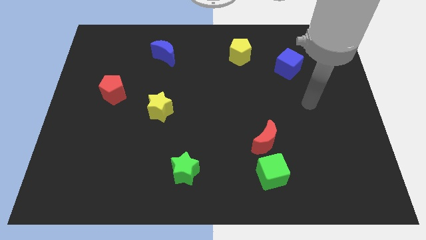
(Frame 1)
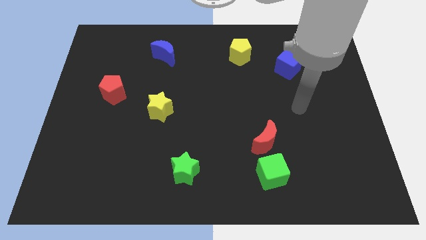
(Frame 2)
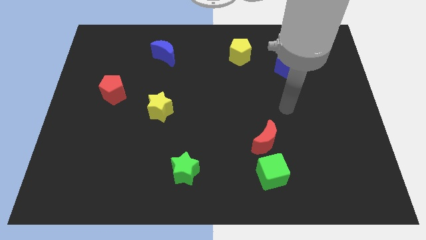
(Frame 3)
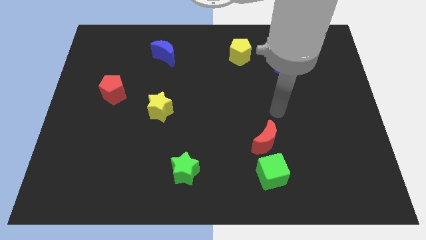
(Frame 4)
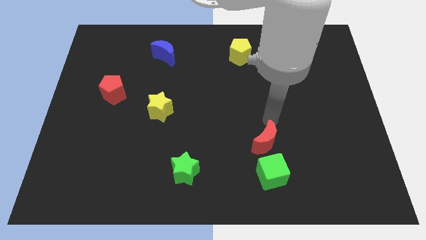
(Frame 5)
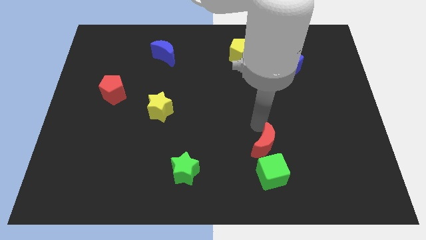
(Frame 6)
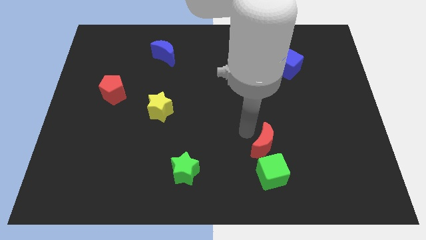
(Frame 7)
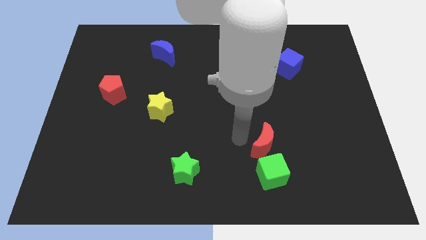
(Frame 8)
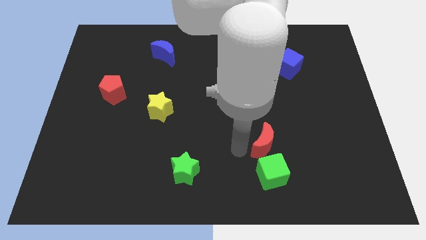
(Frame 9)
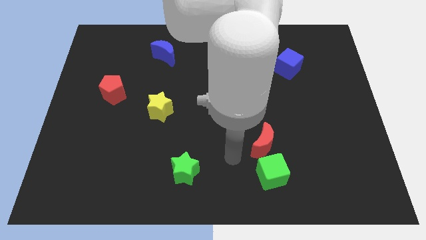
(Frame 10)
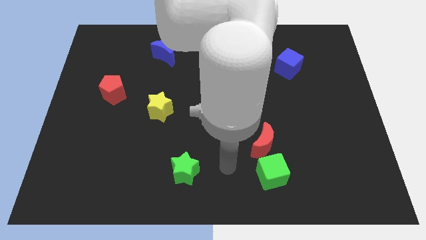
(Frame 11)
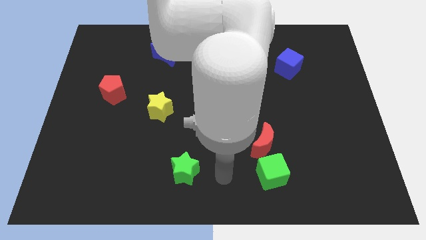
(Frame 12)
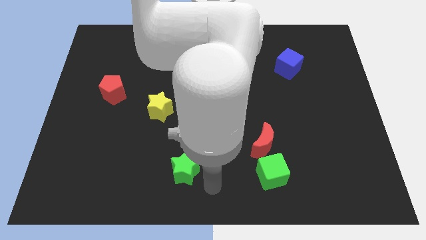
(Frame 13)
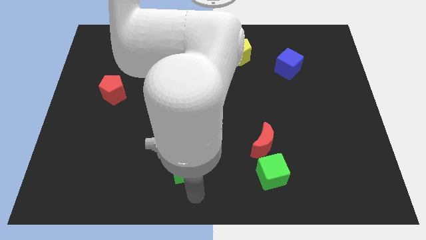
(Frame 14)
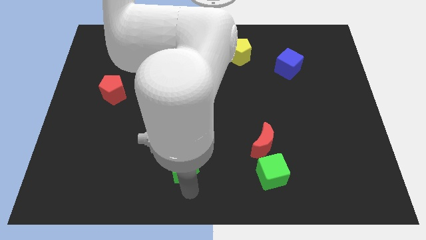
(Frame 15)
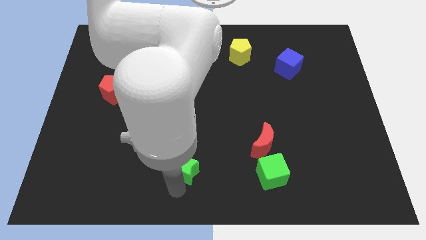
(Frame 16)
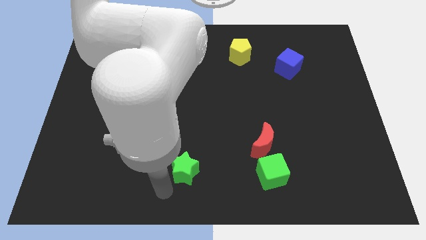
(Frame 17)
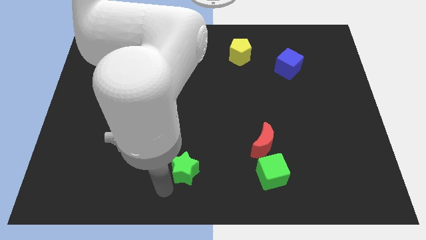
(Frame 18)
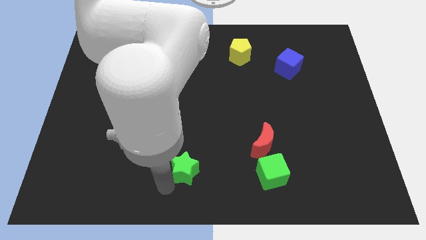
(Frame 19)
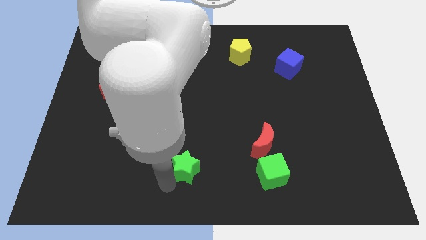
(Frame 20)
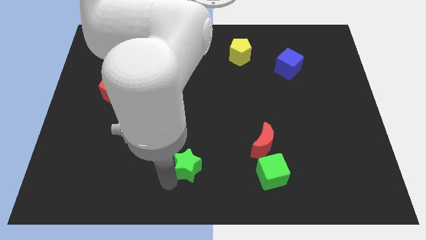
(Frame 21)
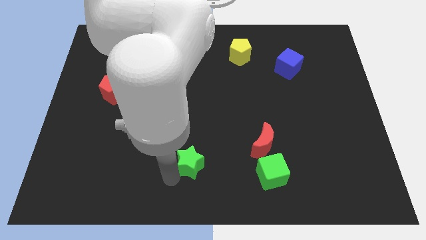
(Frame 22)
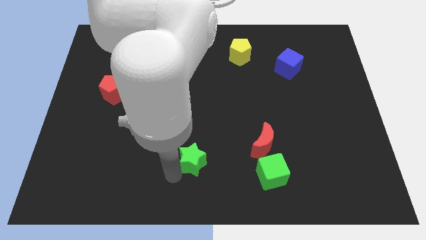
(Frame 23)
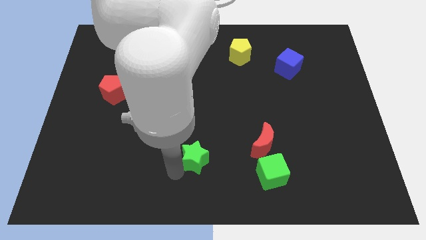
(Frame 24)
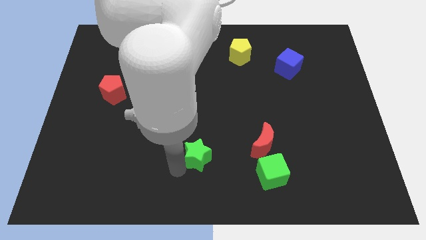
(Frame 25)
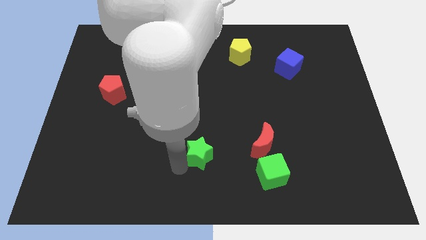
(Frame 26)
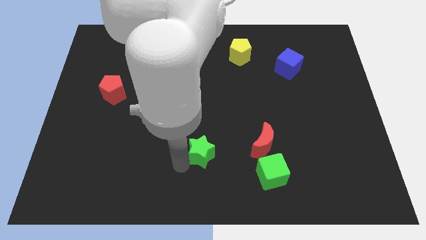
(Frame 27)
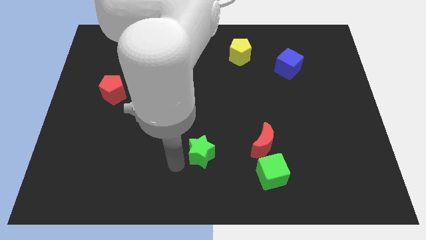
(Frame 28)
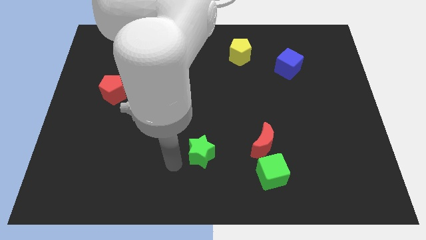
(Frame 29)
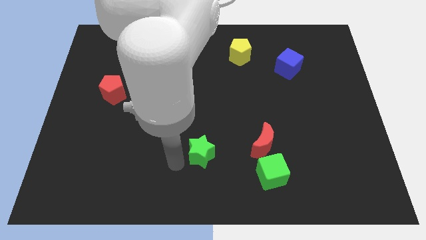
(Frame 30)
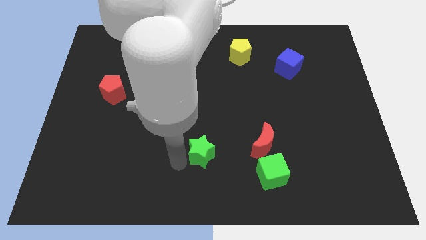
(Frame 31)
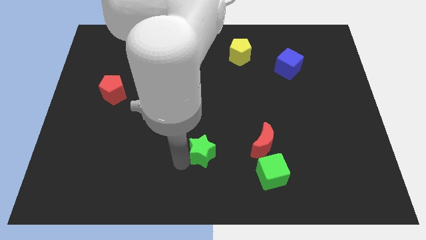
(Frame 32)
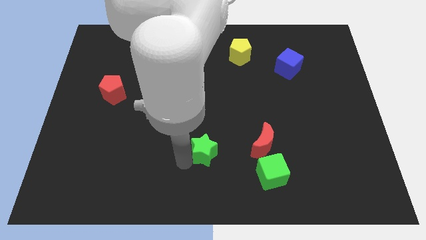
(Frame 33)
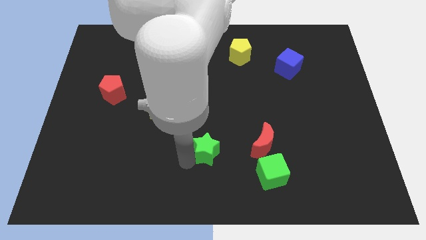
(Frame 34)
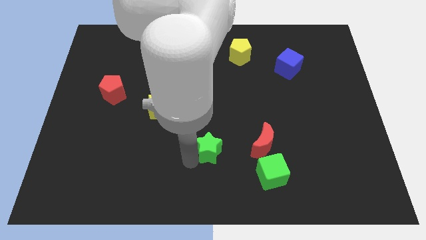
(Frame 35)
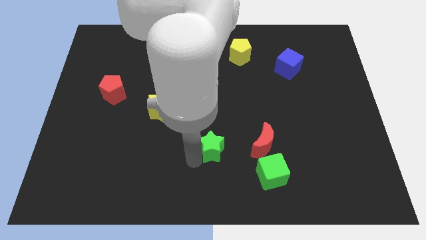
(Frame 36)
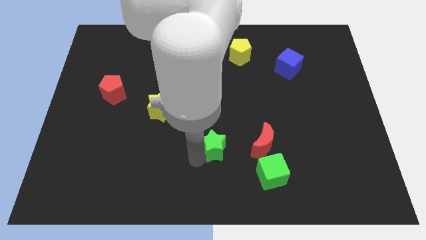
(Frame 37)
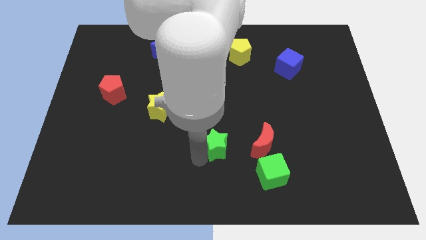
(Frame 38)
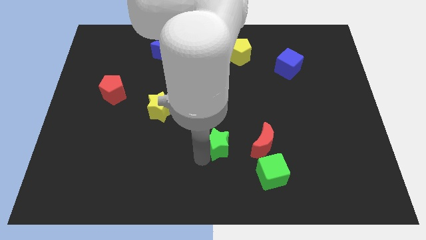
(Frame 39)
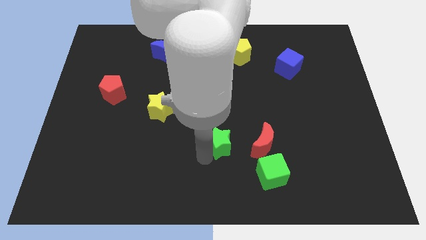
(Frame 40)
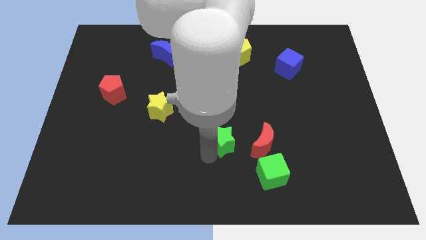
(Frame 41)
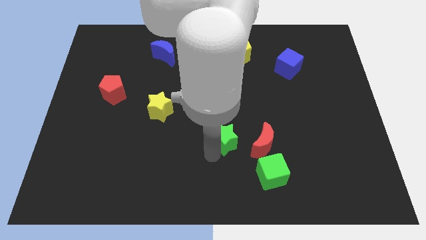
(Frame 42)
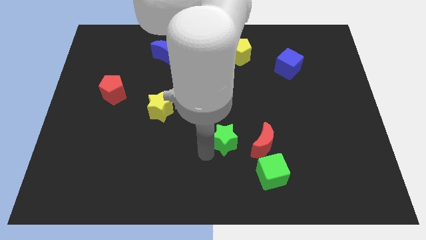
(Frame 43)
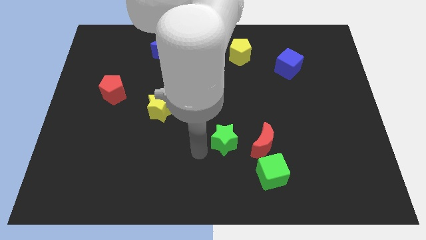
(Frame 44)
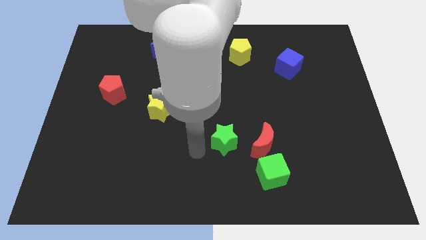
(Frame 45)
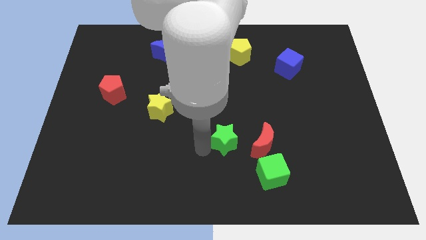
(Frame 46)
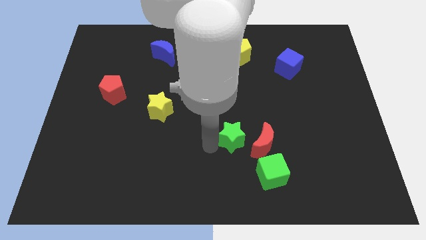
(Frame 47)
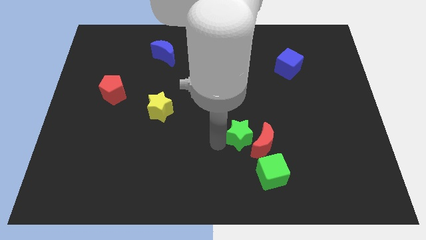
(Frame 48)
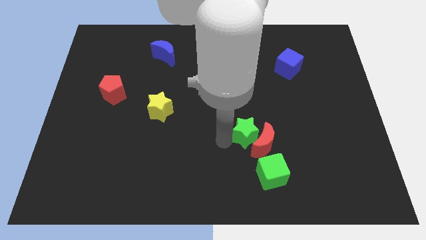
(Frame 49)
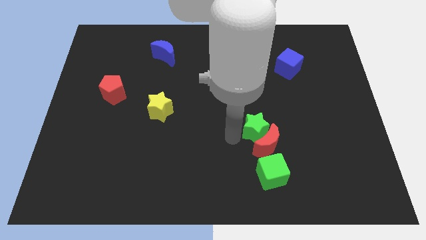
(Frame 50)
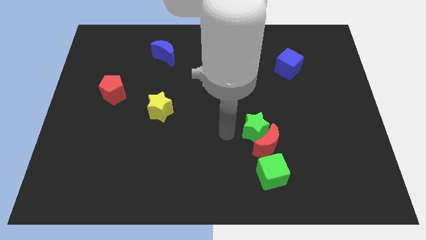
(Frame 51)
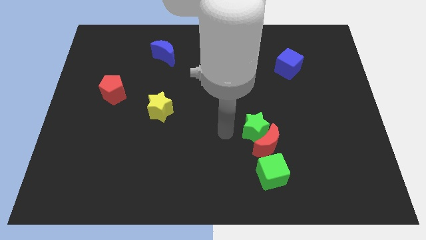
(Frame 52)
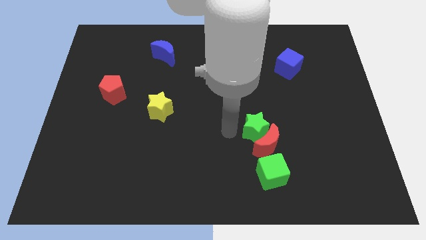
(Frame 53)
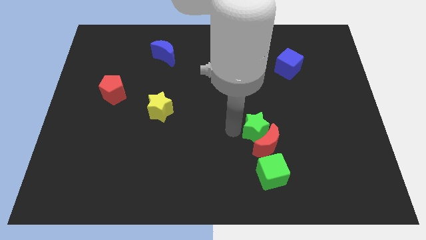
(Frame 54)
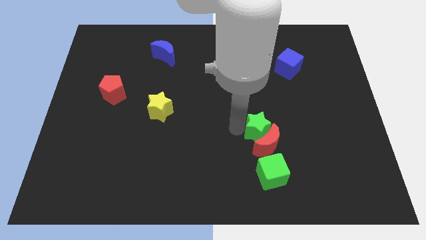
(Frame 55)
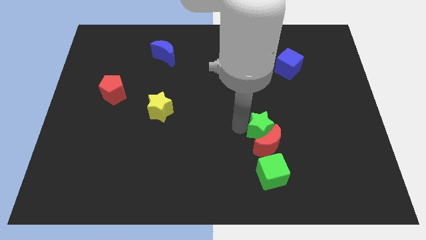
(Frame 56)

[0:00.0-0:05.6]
slide the green star to the top right of the red moon

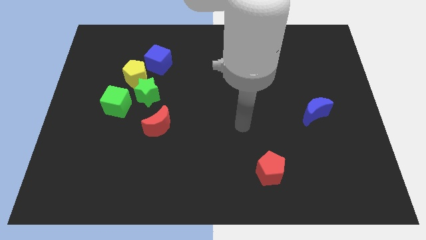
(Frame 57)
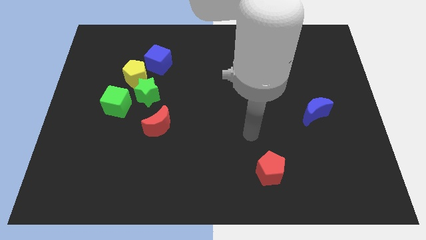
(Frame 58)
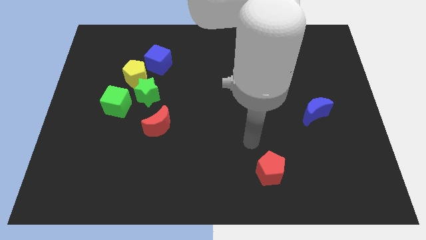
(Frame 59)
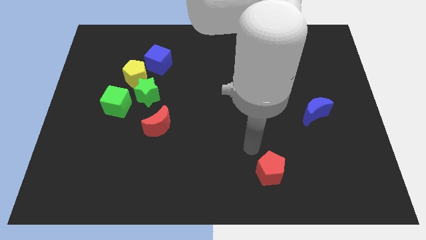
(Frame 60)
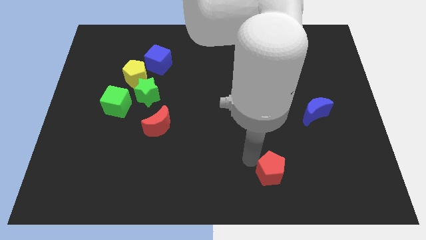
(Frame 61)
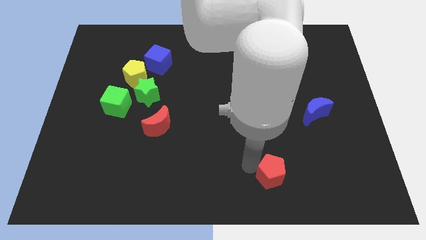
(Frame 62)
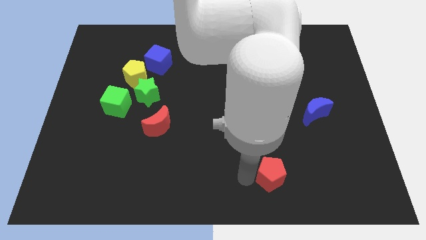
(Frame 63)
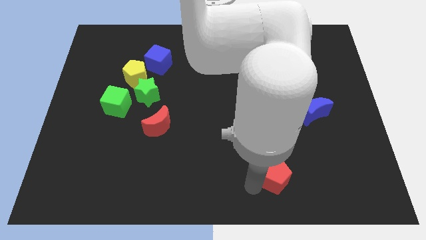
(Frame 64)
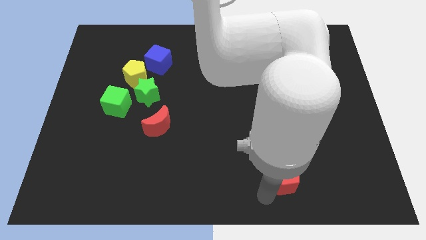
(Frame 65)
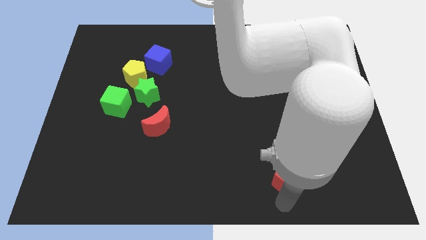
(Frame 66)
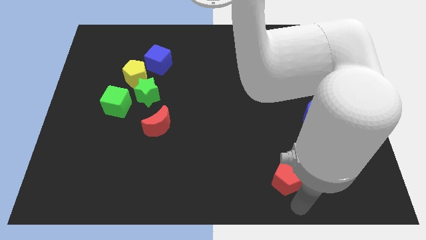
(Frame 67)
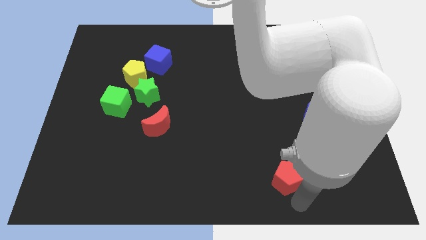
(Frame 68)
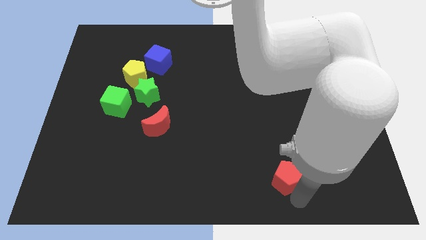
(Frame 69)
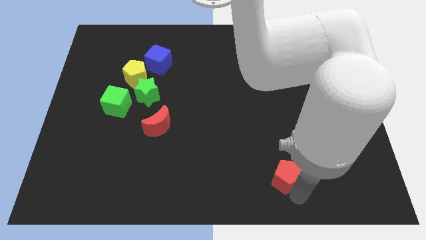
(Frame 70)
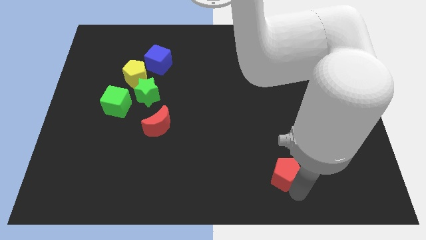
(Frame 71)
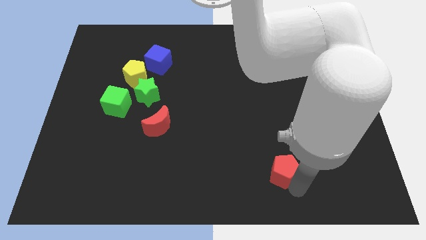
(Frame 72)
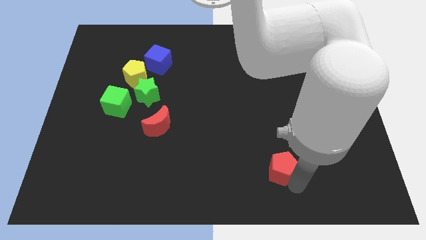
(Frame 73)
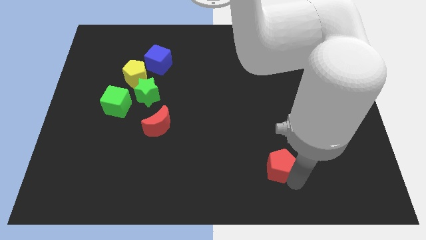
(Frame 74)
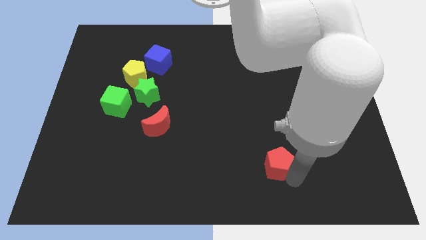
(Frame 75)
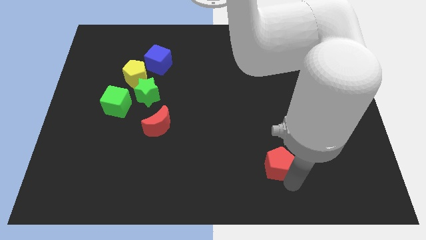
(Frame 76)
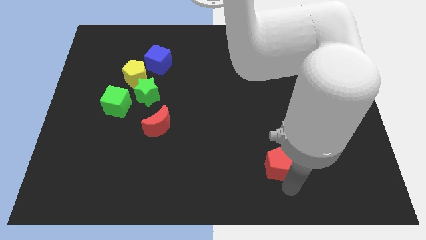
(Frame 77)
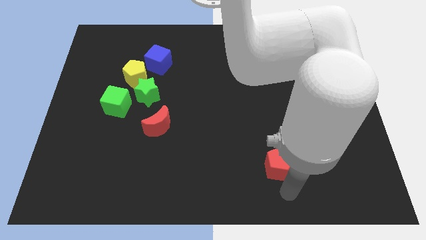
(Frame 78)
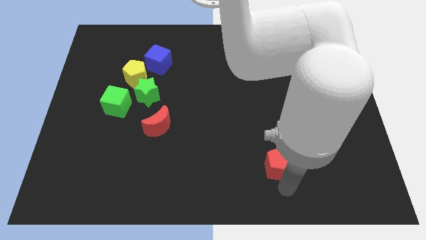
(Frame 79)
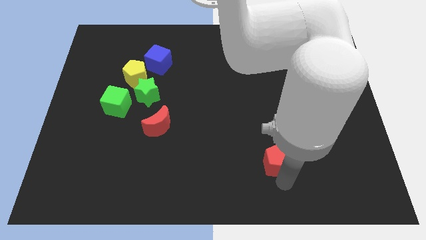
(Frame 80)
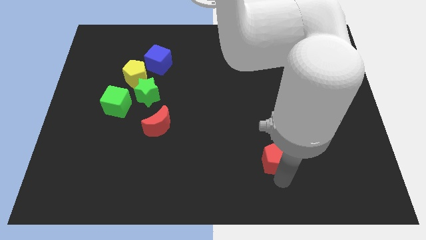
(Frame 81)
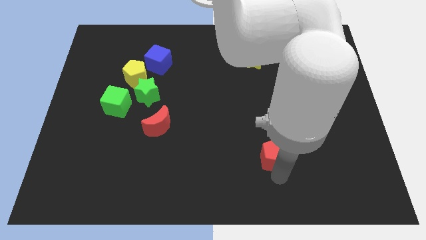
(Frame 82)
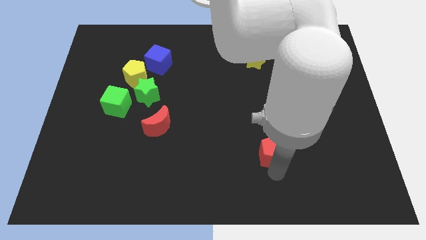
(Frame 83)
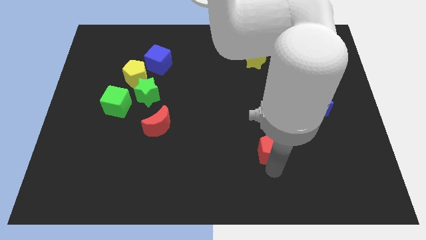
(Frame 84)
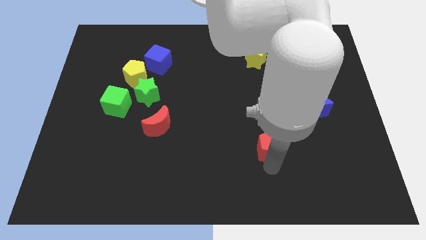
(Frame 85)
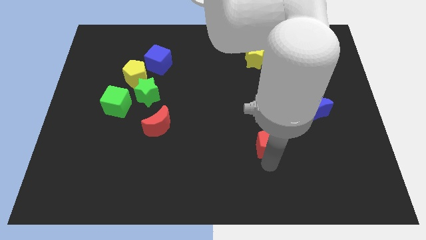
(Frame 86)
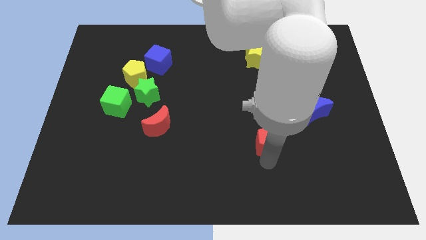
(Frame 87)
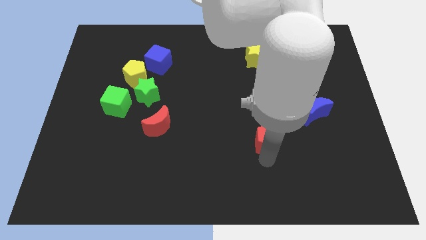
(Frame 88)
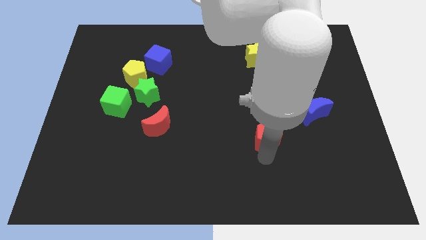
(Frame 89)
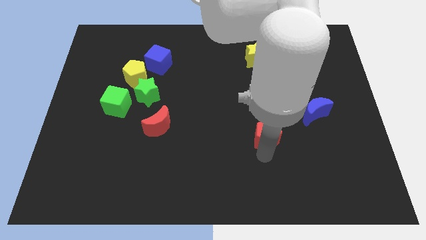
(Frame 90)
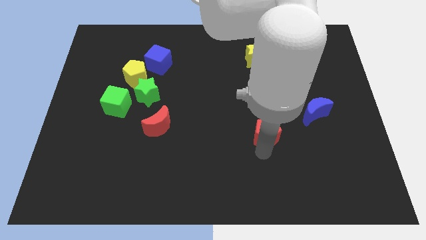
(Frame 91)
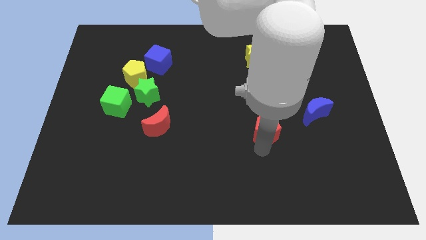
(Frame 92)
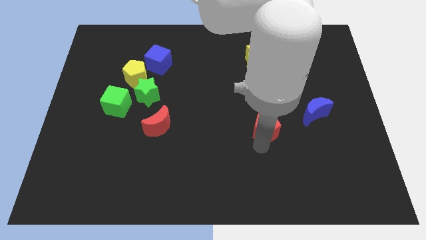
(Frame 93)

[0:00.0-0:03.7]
slide the red pentagon to the left of the blue moon
